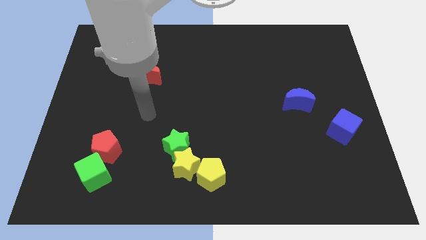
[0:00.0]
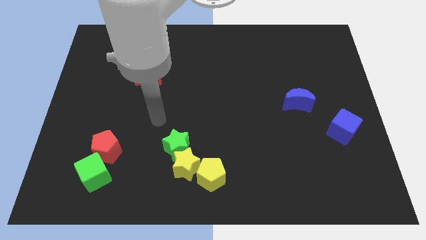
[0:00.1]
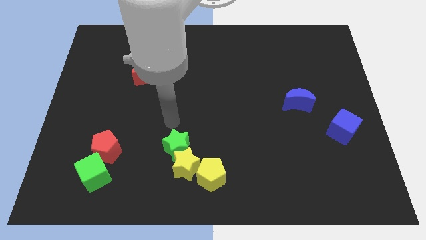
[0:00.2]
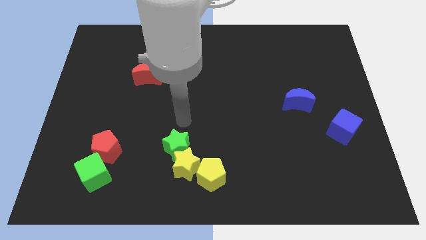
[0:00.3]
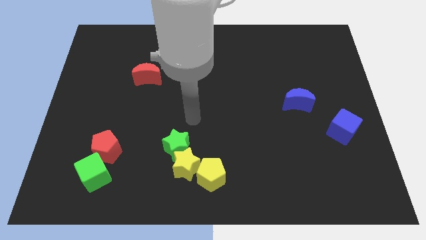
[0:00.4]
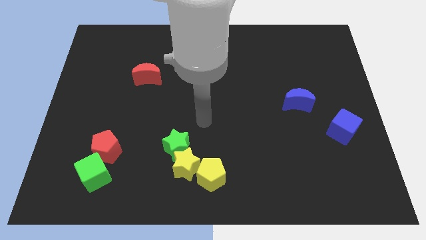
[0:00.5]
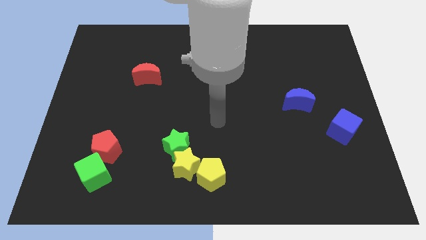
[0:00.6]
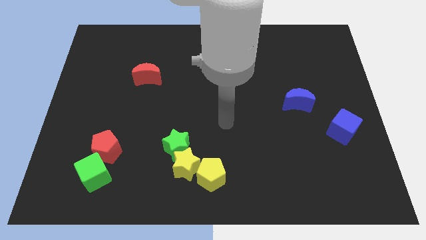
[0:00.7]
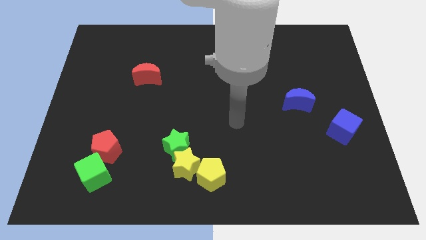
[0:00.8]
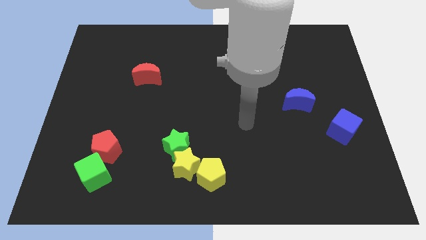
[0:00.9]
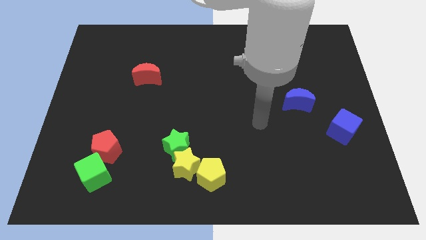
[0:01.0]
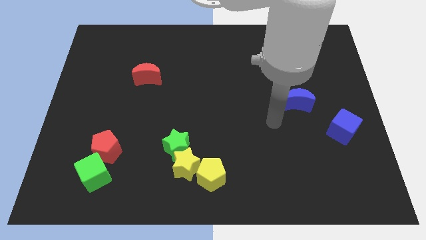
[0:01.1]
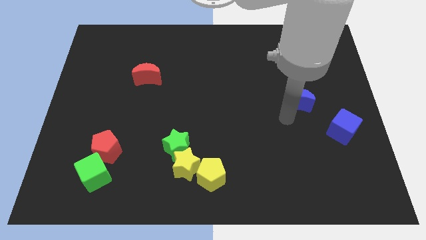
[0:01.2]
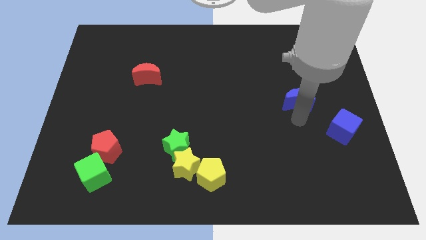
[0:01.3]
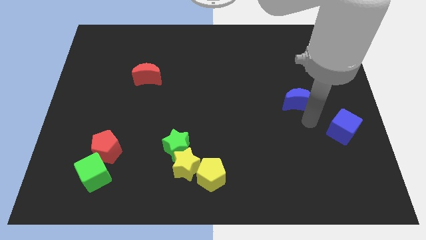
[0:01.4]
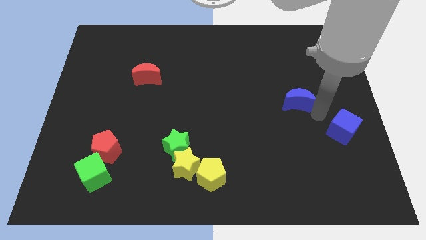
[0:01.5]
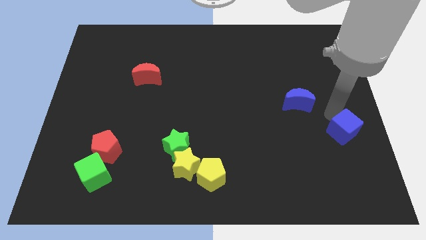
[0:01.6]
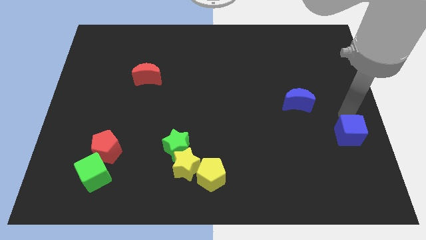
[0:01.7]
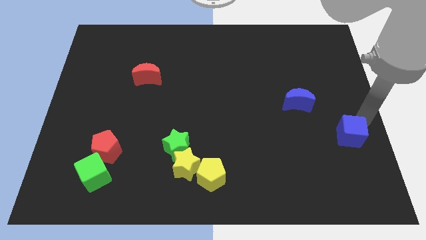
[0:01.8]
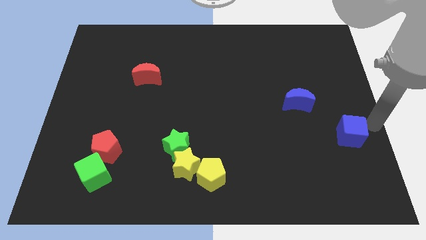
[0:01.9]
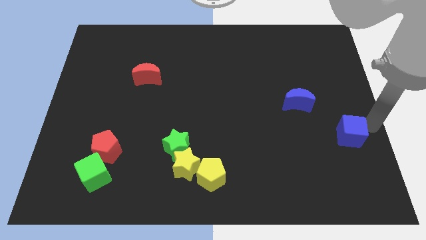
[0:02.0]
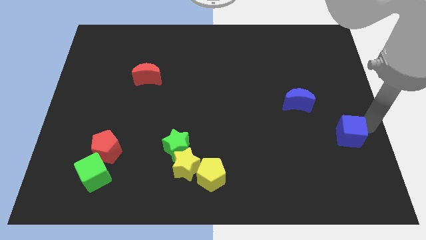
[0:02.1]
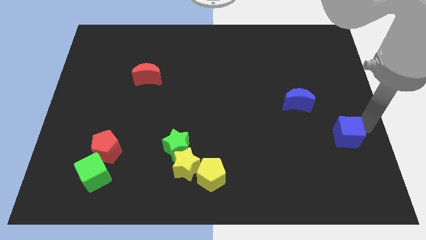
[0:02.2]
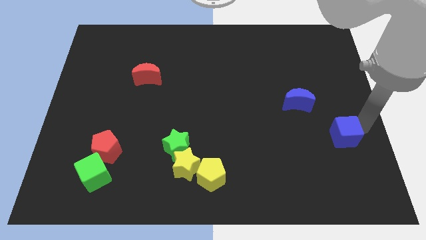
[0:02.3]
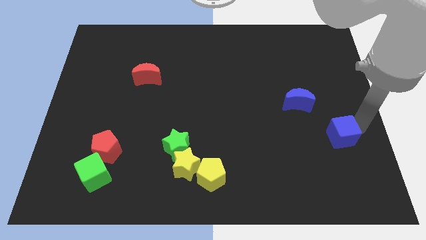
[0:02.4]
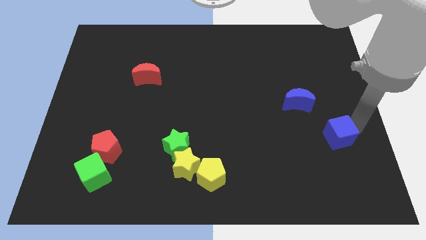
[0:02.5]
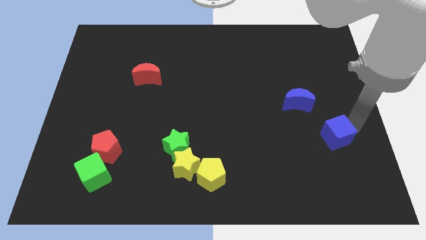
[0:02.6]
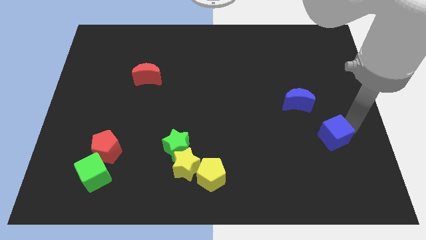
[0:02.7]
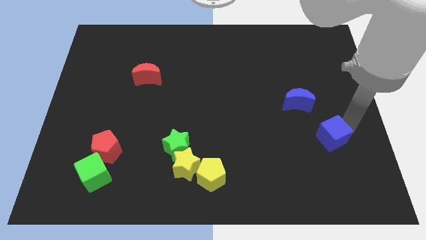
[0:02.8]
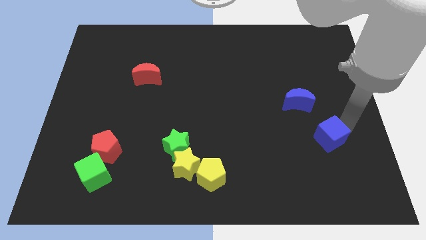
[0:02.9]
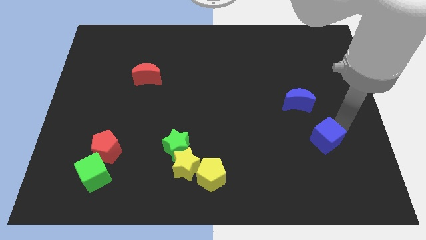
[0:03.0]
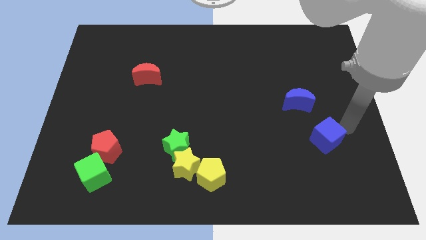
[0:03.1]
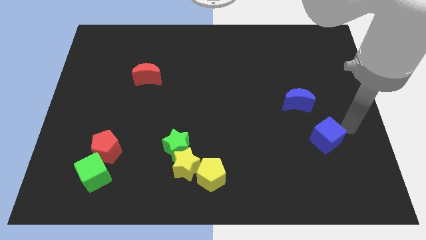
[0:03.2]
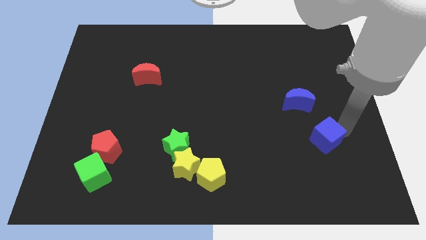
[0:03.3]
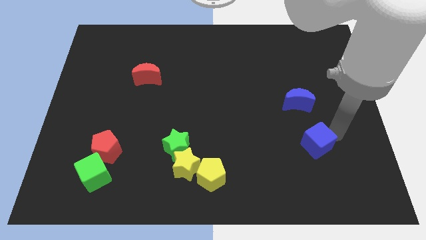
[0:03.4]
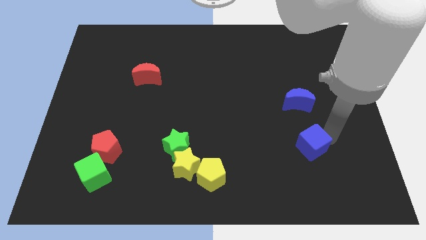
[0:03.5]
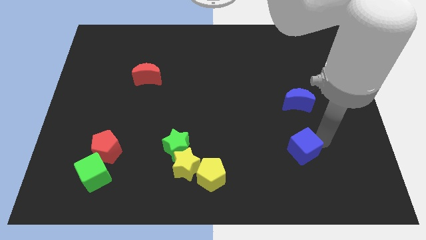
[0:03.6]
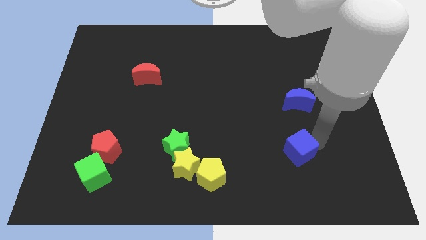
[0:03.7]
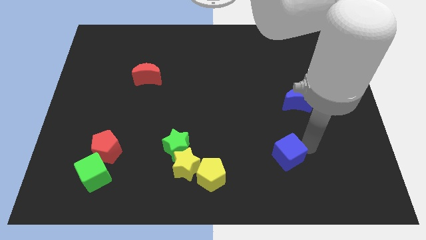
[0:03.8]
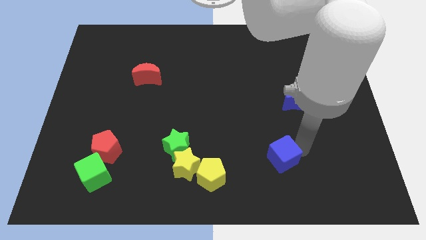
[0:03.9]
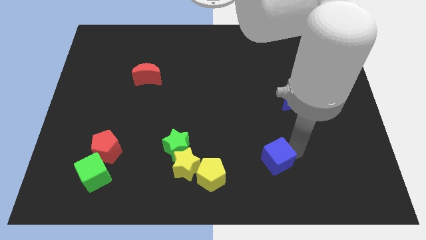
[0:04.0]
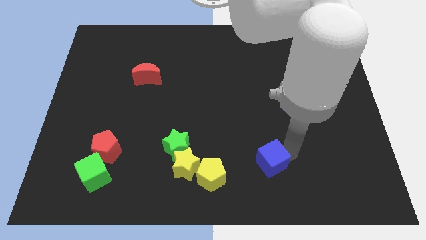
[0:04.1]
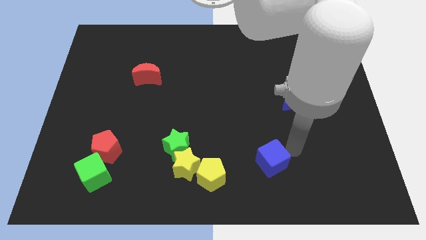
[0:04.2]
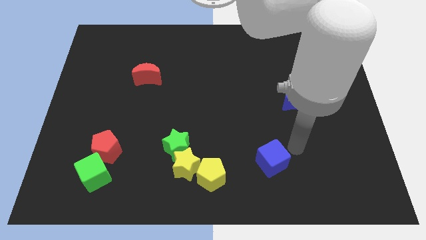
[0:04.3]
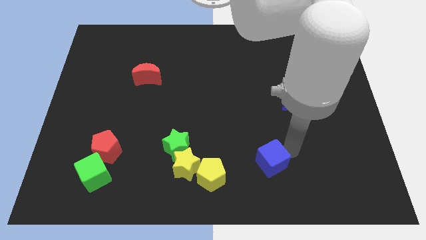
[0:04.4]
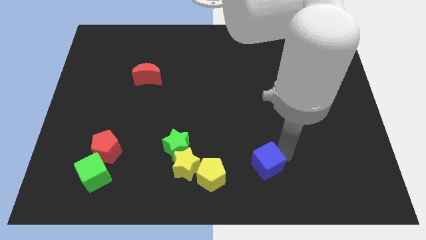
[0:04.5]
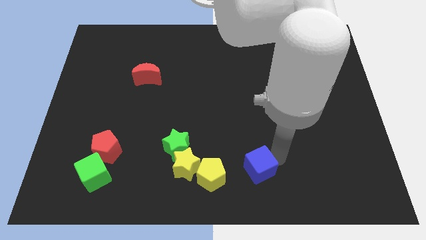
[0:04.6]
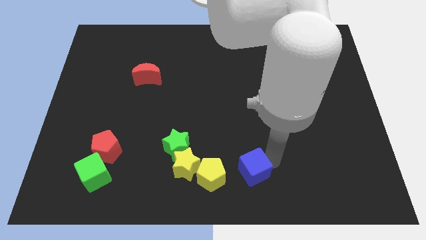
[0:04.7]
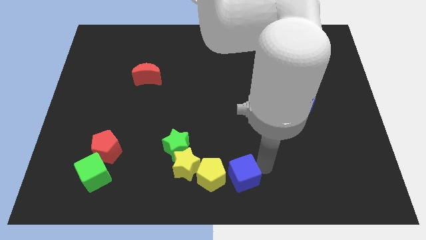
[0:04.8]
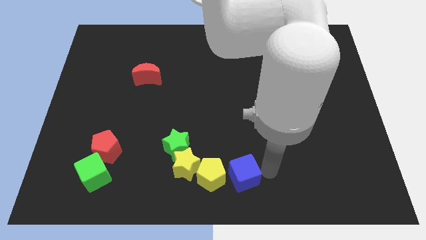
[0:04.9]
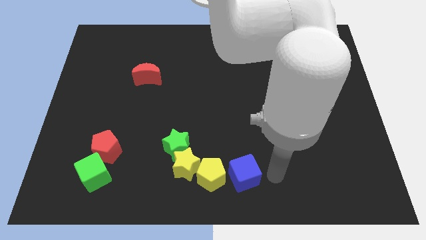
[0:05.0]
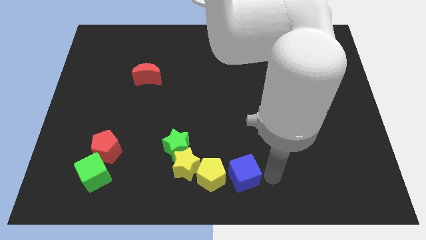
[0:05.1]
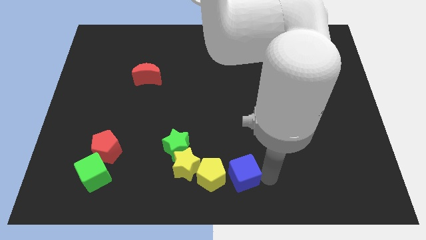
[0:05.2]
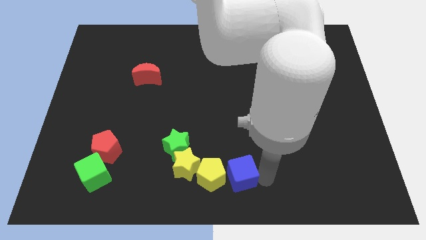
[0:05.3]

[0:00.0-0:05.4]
slide the blue cube towards the yellow pentagon

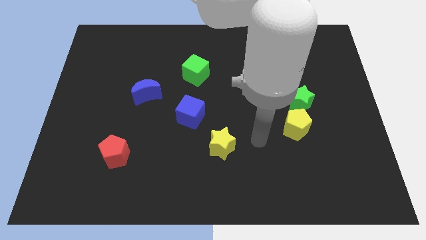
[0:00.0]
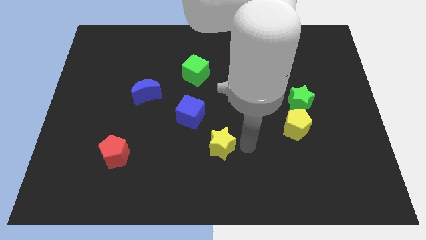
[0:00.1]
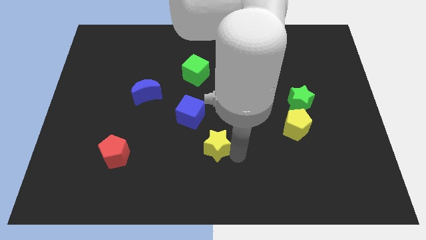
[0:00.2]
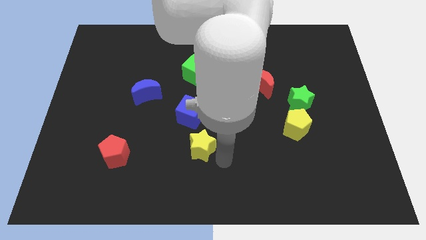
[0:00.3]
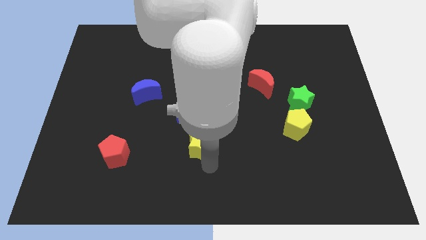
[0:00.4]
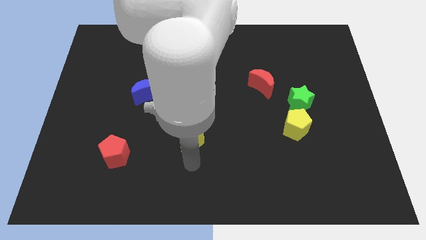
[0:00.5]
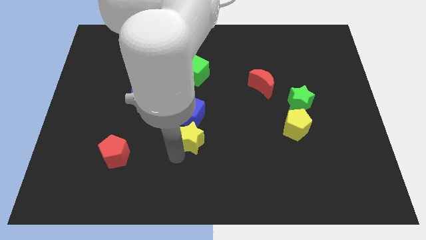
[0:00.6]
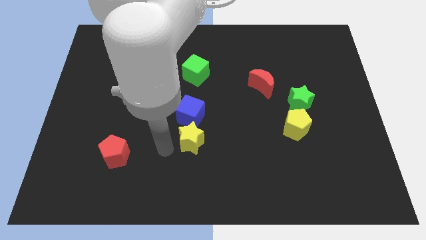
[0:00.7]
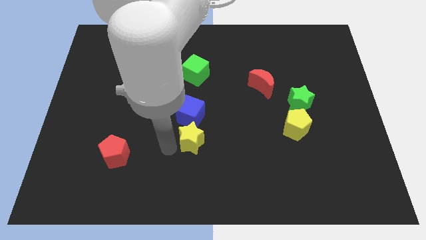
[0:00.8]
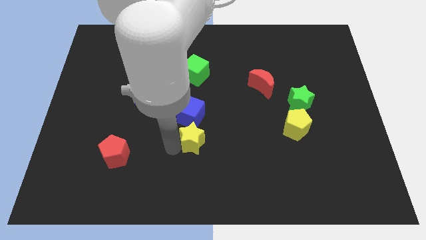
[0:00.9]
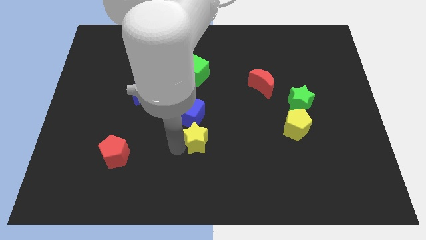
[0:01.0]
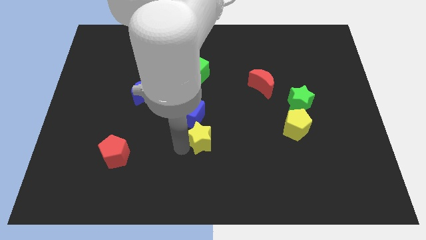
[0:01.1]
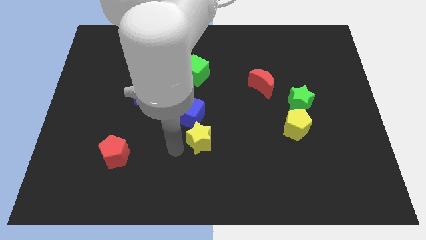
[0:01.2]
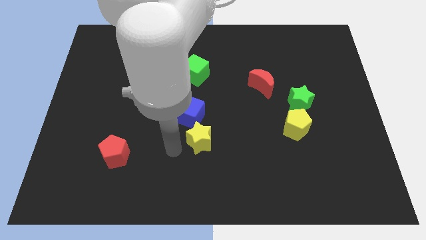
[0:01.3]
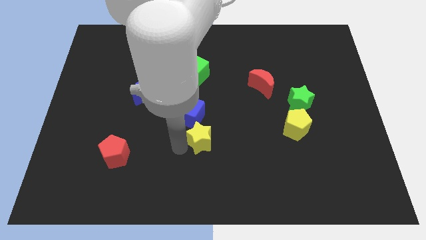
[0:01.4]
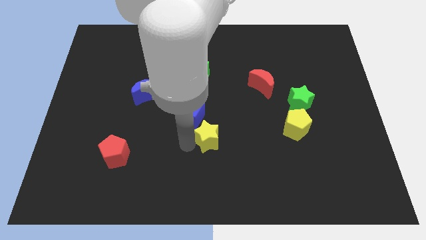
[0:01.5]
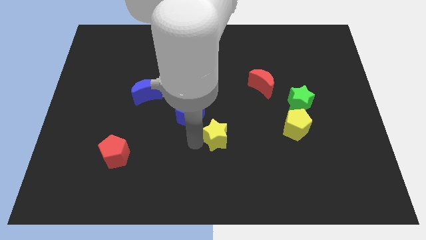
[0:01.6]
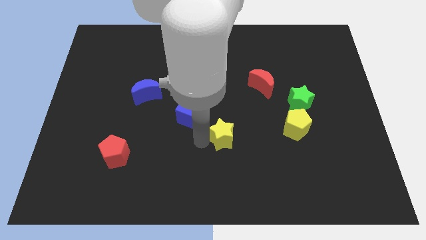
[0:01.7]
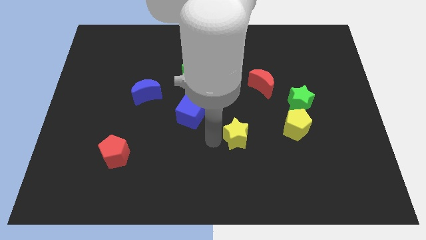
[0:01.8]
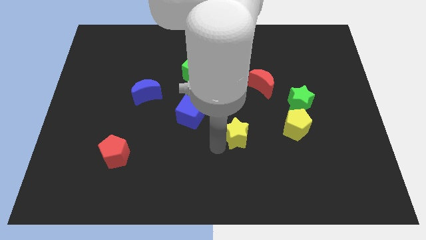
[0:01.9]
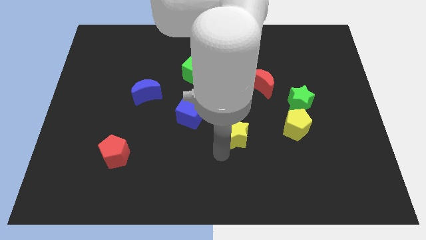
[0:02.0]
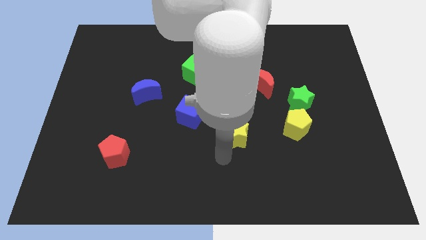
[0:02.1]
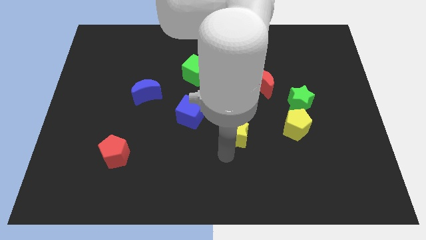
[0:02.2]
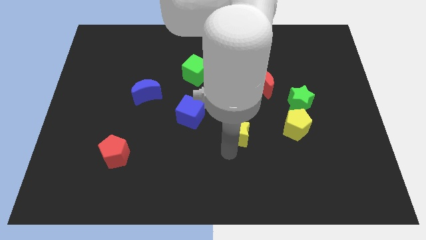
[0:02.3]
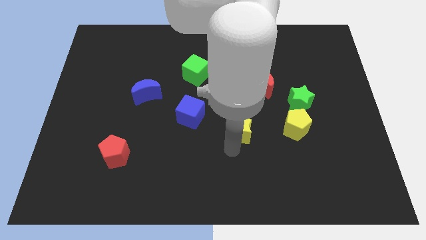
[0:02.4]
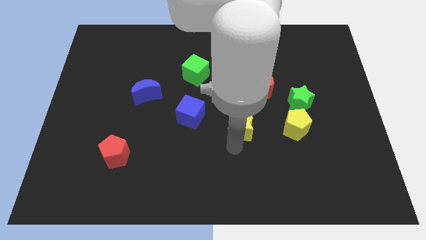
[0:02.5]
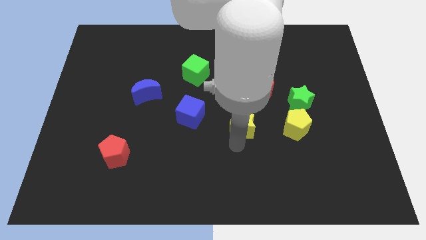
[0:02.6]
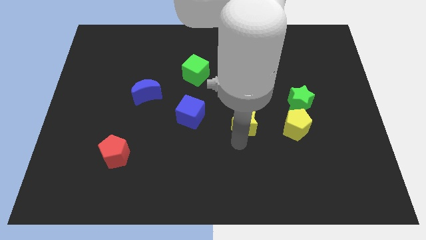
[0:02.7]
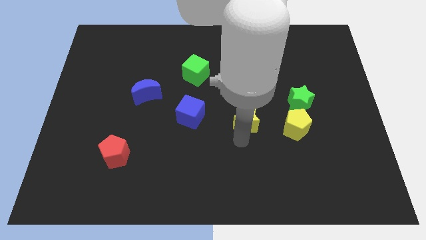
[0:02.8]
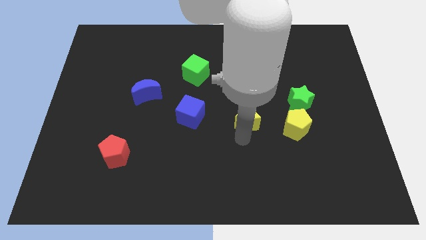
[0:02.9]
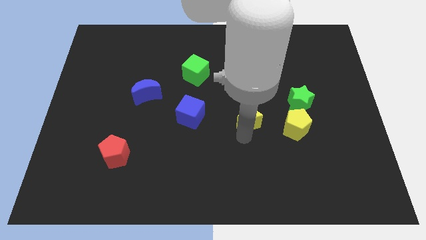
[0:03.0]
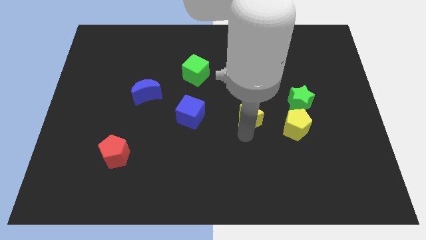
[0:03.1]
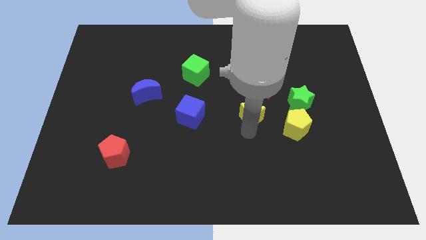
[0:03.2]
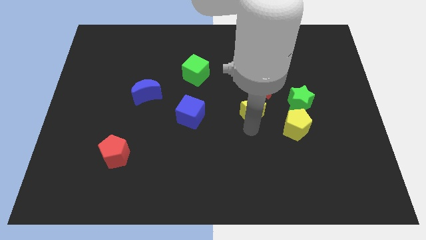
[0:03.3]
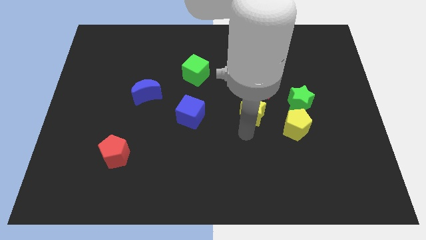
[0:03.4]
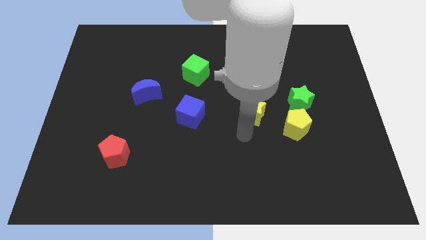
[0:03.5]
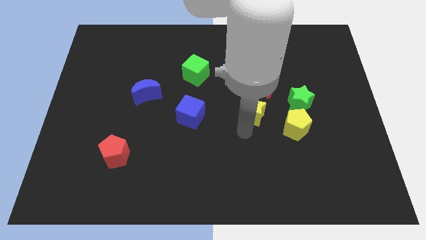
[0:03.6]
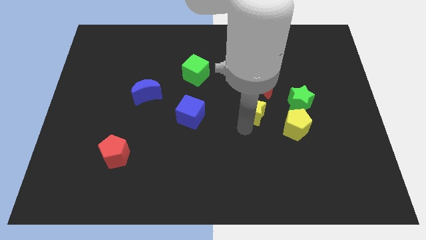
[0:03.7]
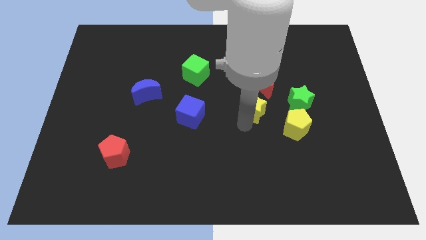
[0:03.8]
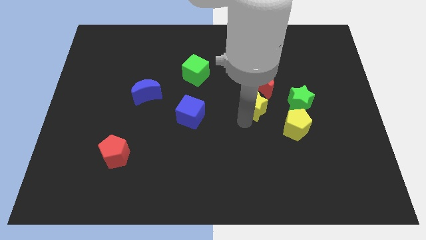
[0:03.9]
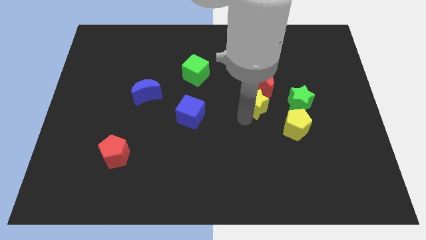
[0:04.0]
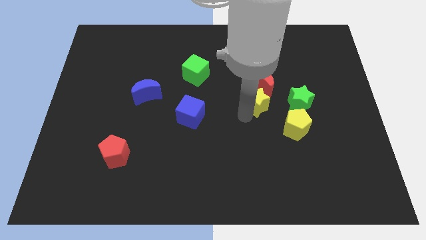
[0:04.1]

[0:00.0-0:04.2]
put the yellow star towards the red moon
